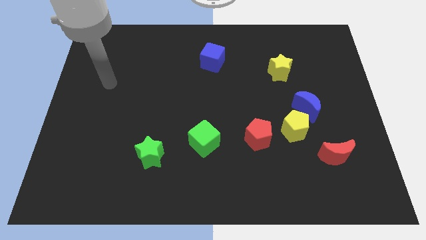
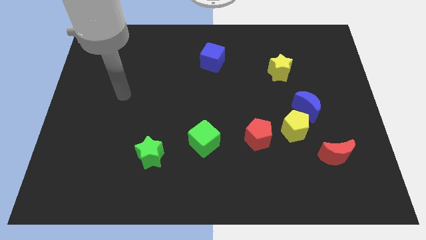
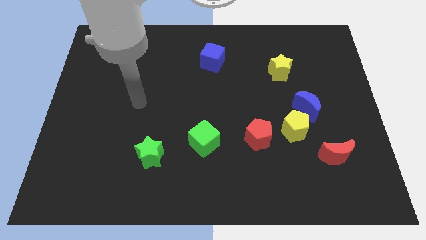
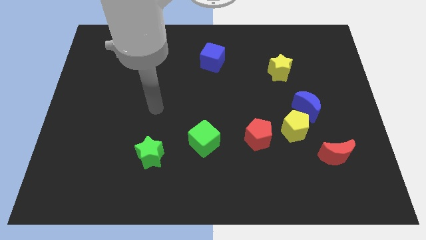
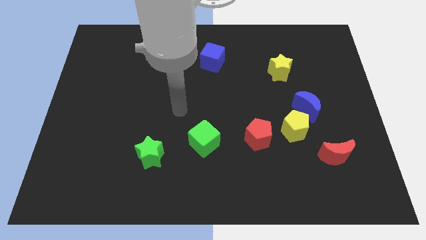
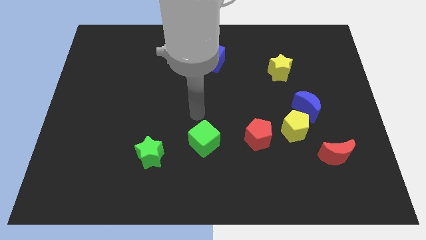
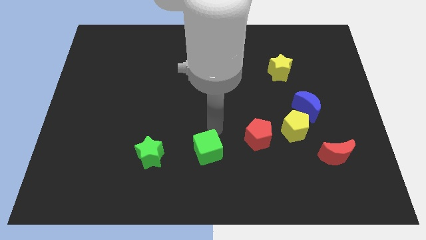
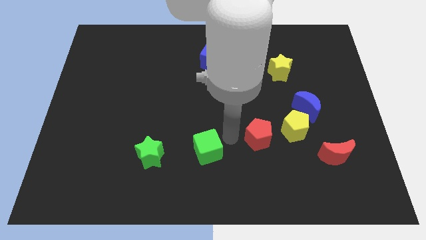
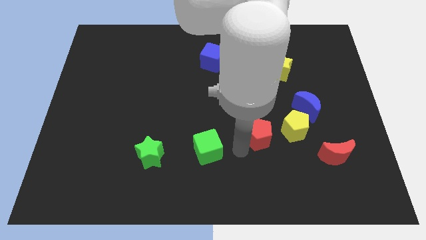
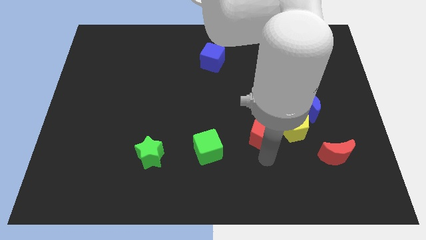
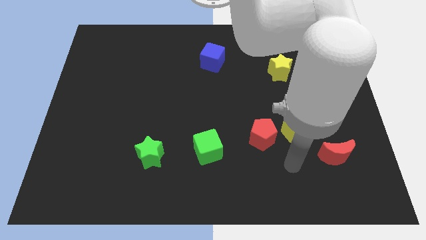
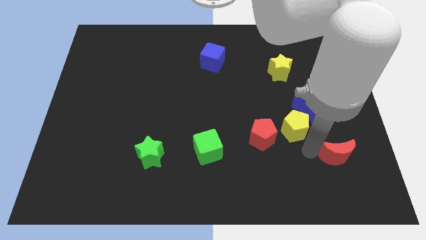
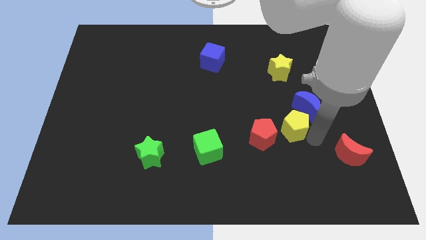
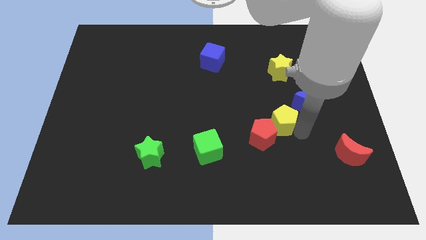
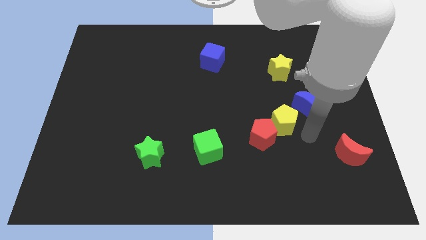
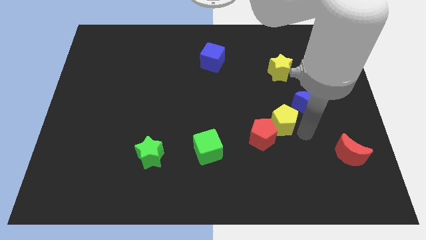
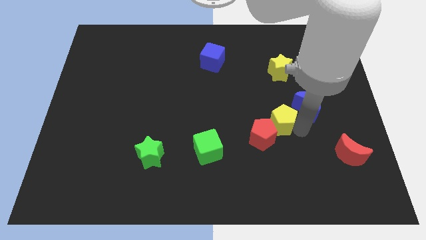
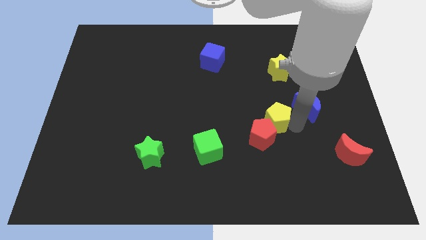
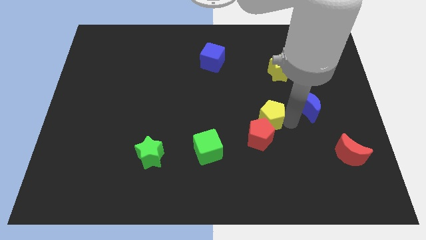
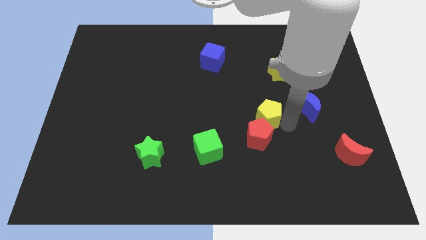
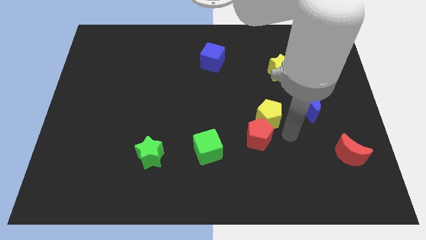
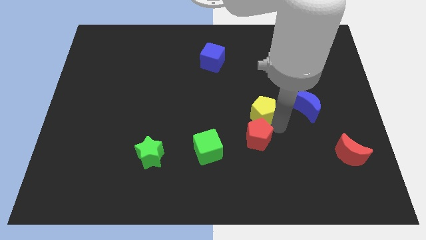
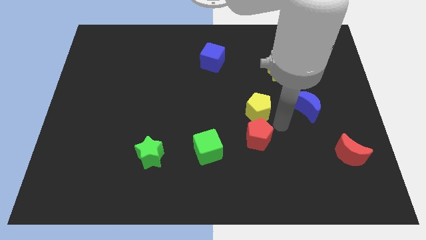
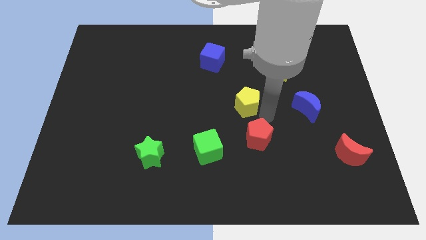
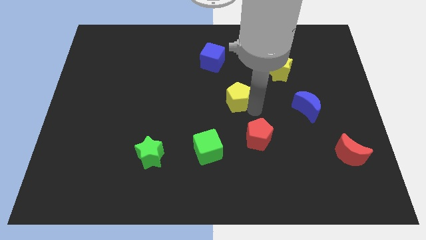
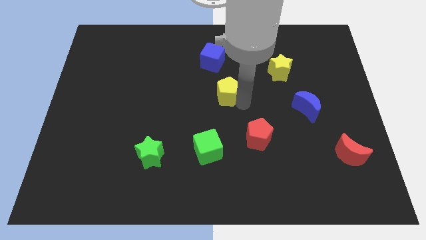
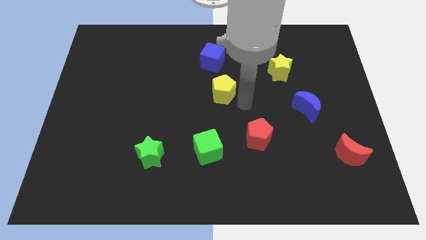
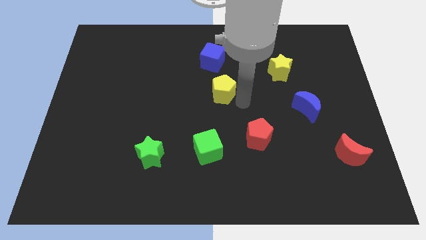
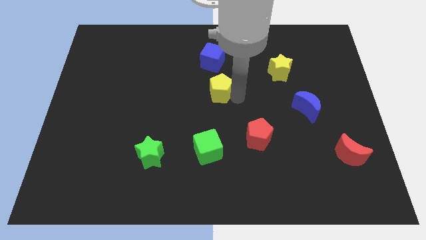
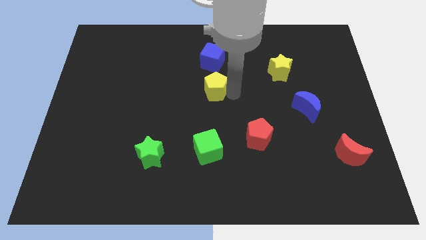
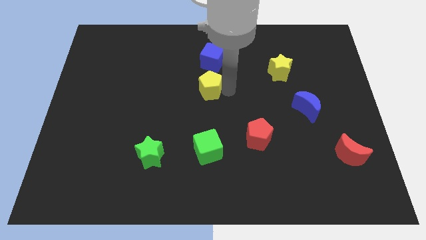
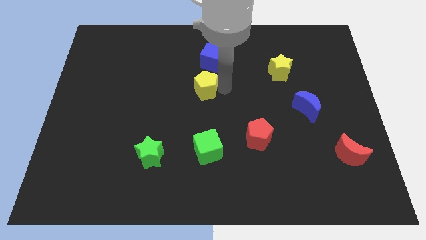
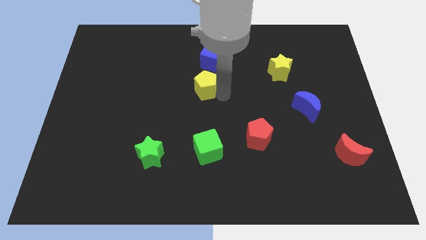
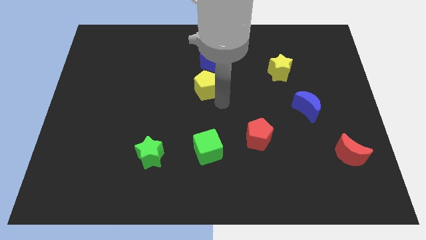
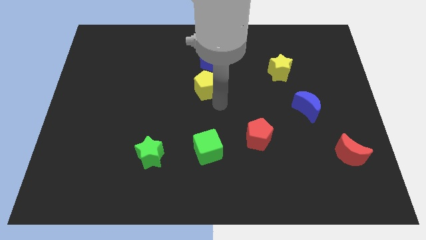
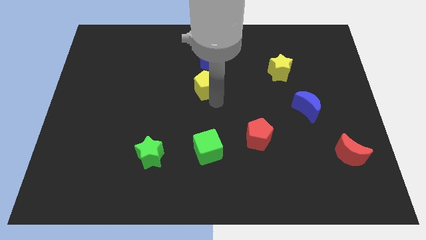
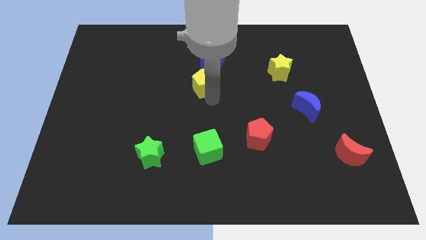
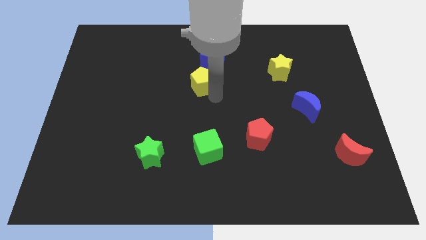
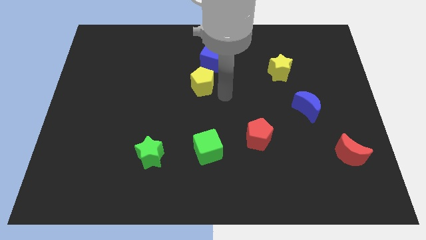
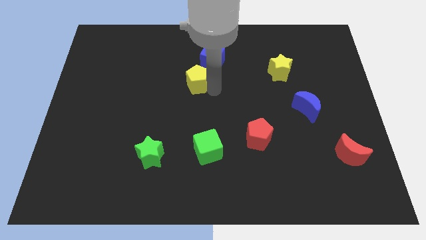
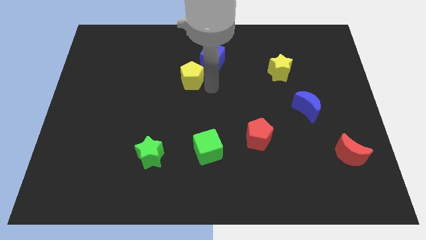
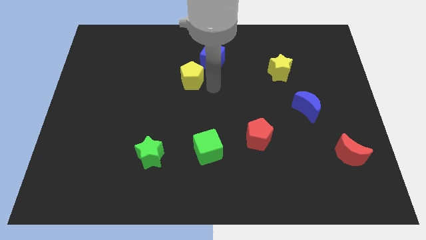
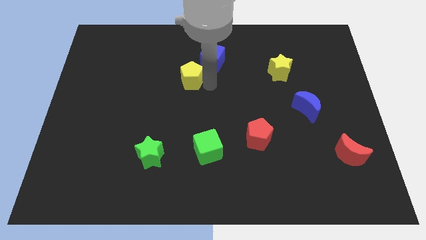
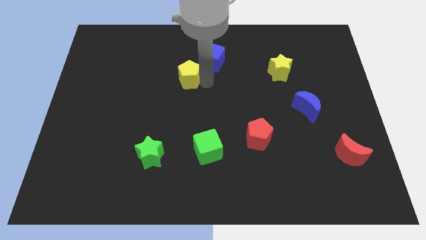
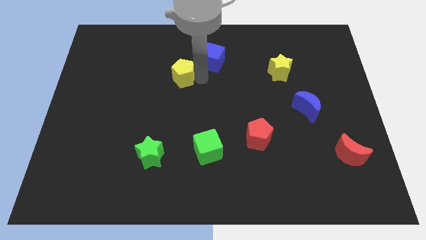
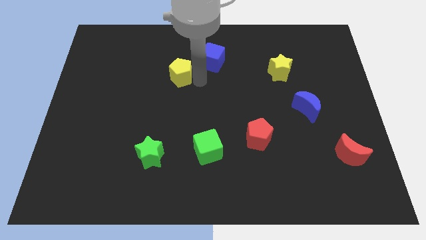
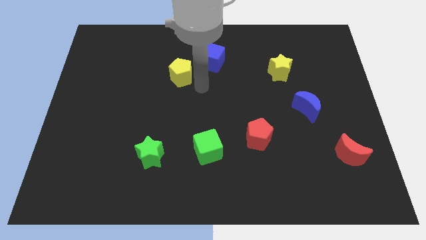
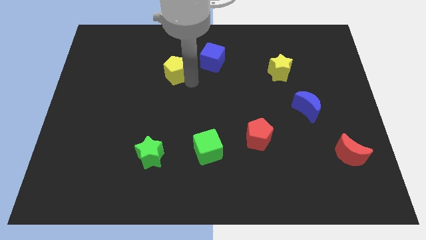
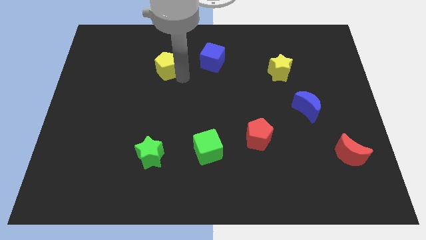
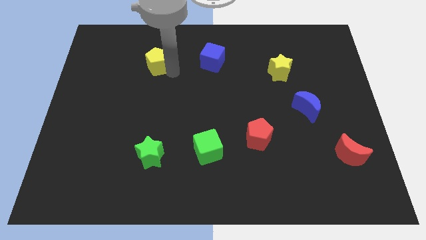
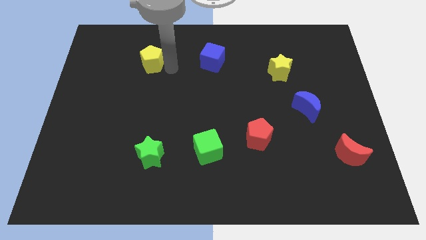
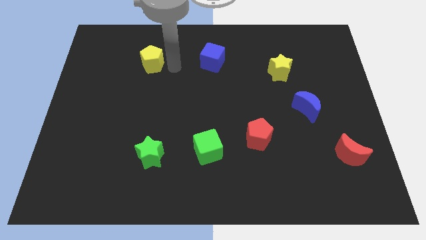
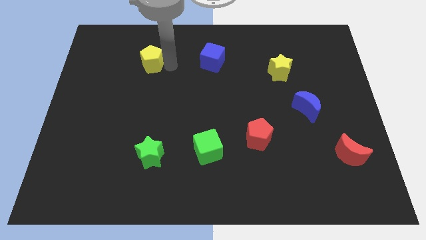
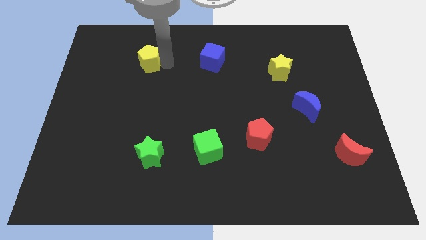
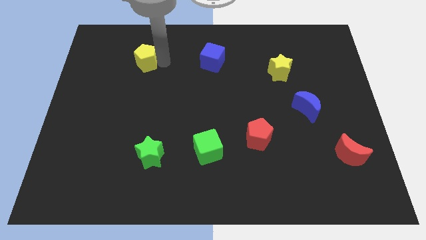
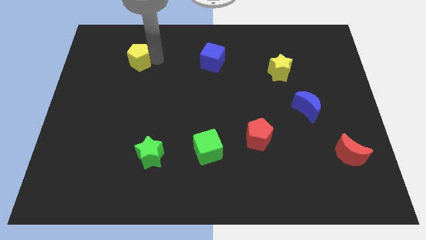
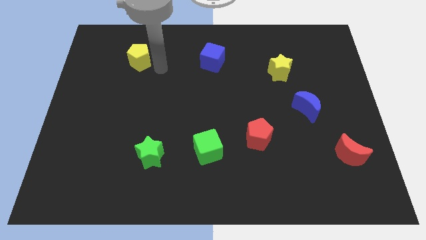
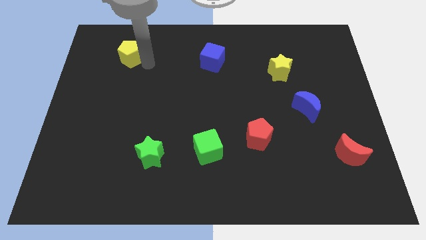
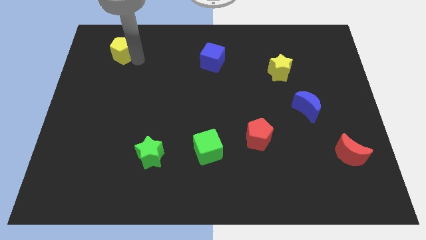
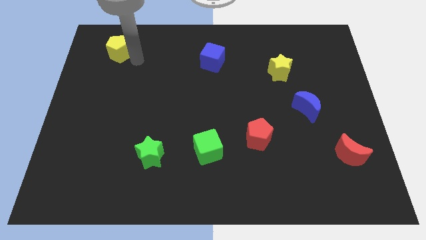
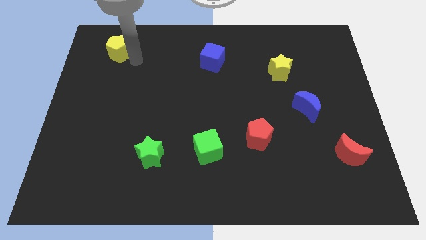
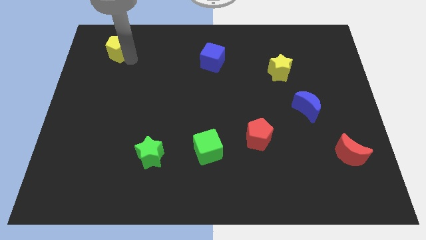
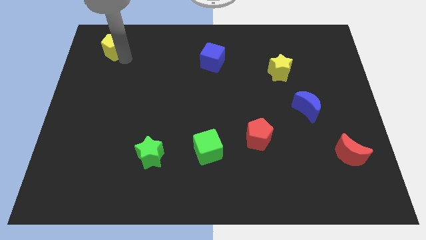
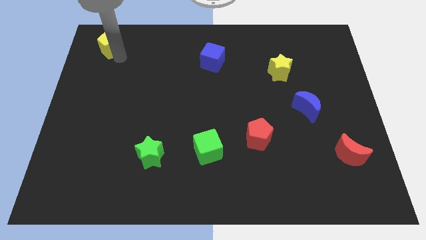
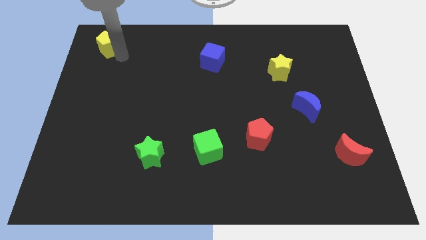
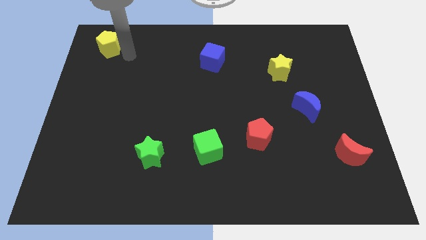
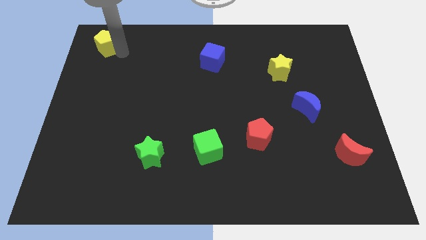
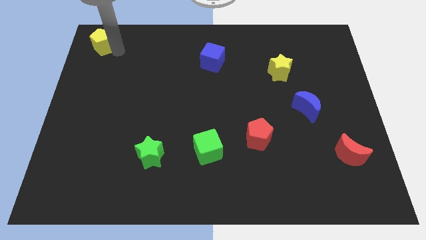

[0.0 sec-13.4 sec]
put the yellow pentagon to the upper left corner

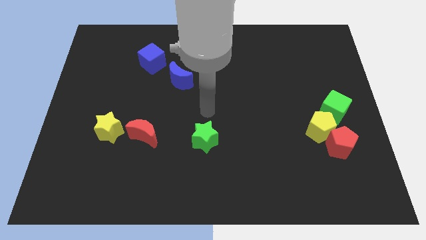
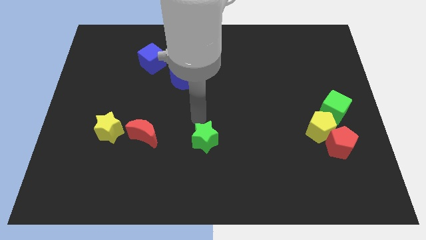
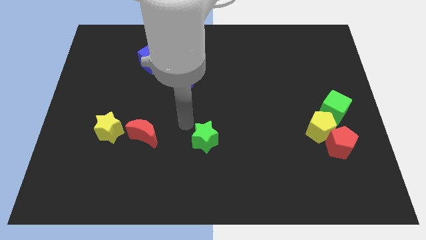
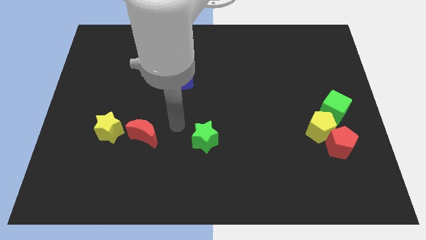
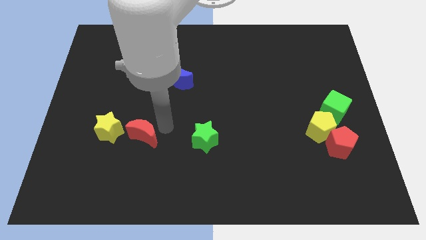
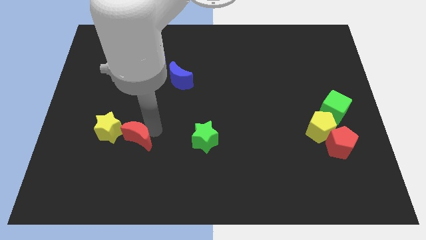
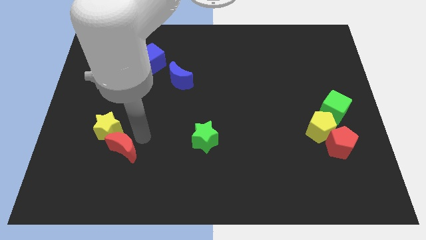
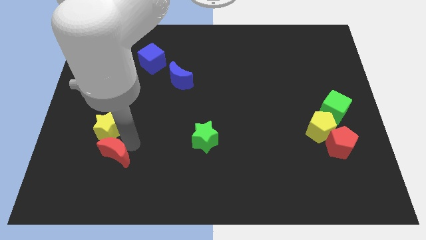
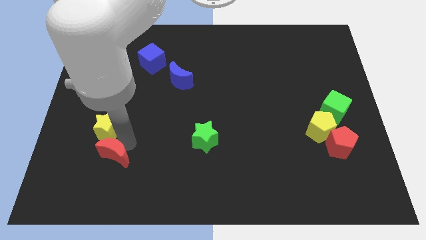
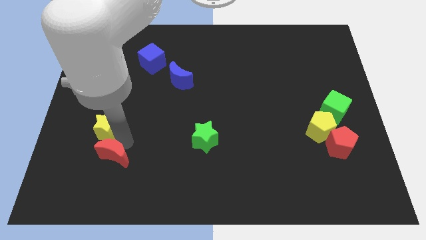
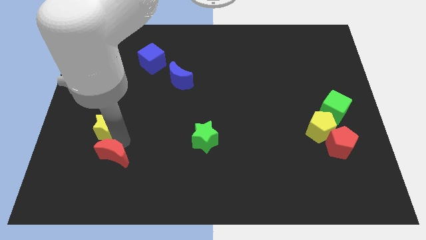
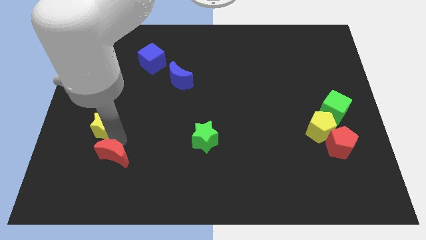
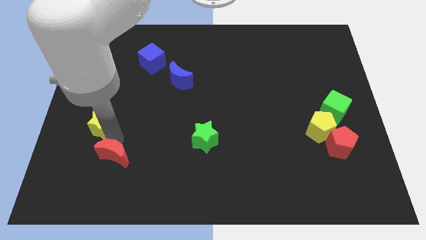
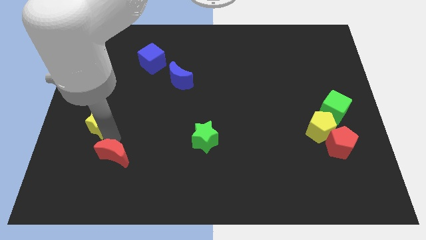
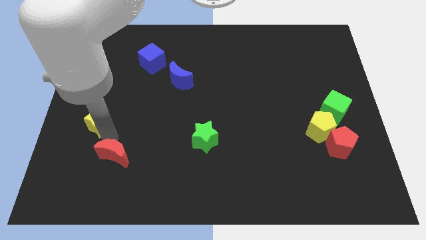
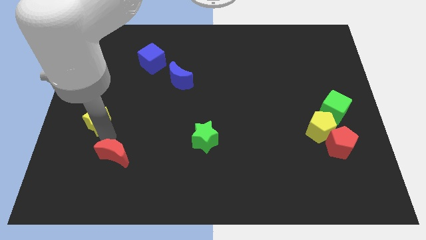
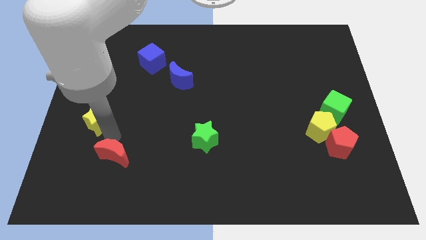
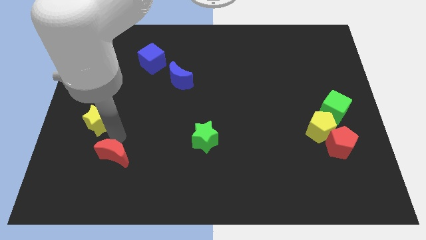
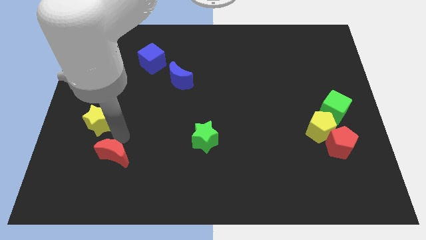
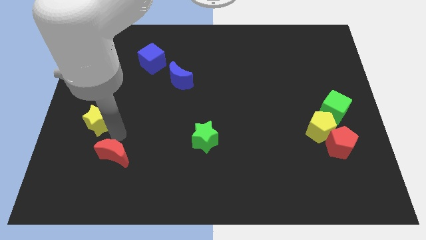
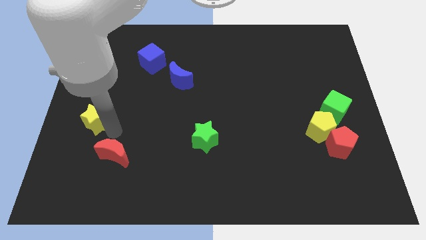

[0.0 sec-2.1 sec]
move the yellow star to the center left
